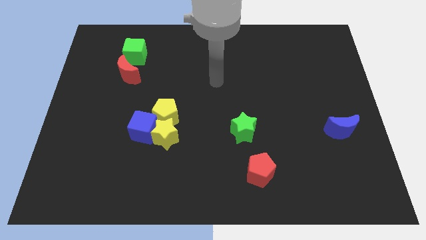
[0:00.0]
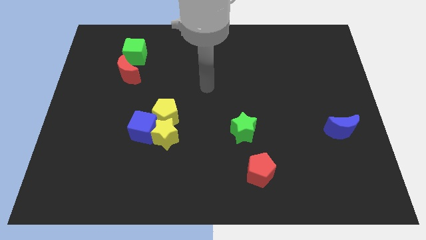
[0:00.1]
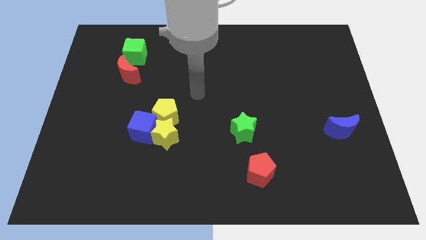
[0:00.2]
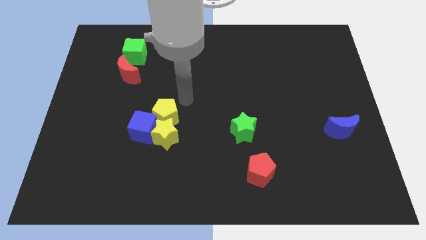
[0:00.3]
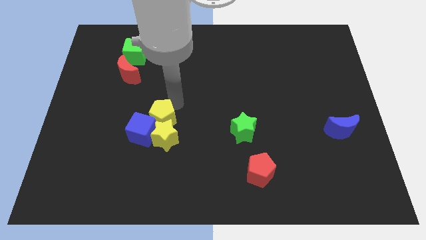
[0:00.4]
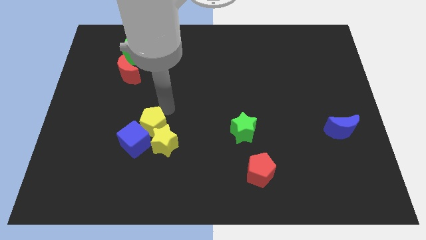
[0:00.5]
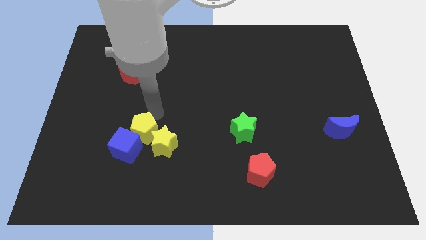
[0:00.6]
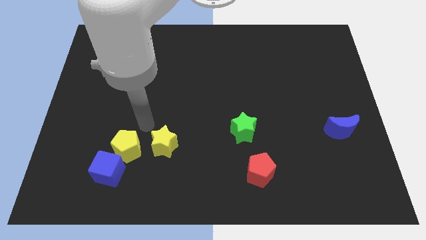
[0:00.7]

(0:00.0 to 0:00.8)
move the yellow star away from the blue cube and yellow pentagon

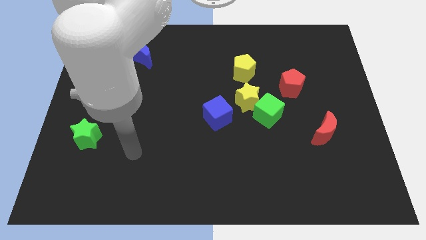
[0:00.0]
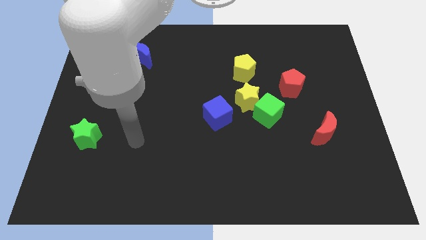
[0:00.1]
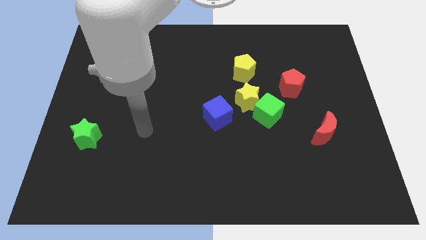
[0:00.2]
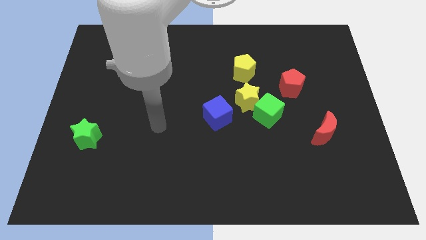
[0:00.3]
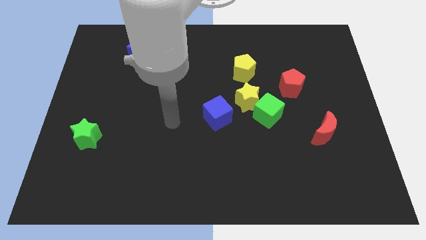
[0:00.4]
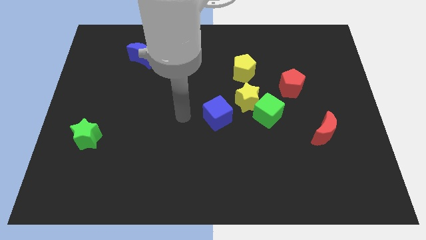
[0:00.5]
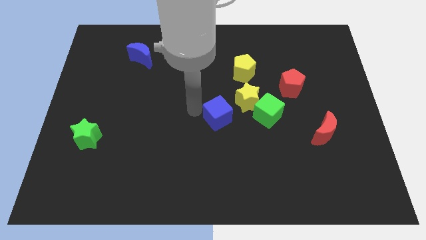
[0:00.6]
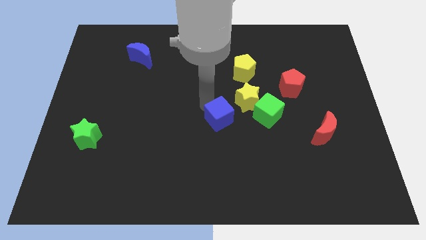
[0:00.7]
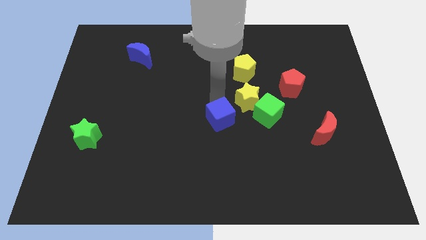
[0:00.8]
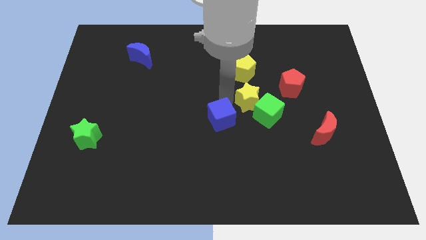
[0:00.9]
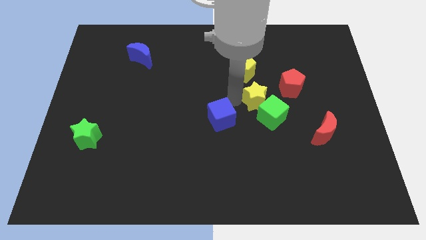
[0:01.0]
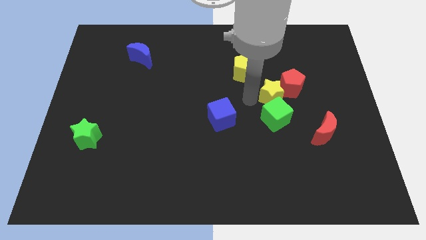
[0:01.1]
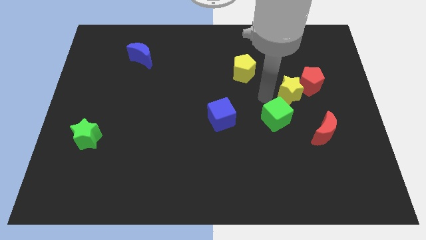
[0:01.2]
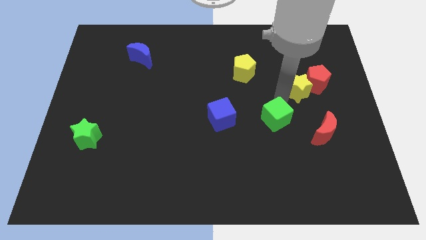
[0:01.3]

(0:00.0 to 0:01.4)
move the green cube away from the yellow star

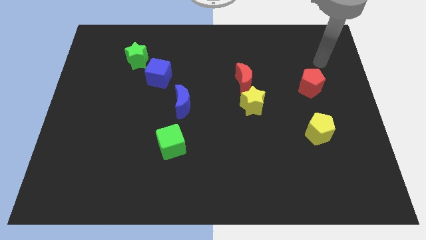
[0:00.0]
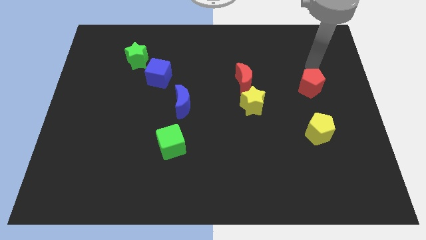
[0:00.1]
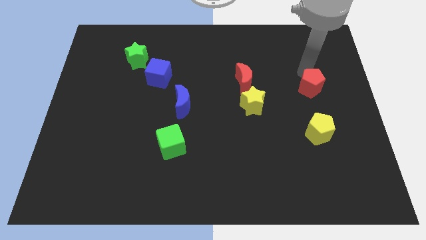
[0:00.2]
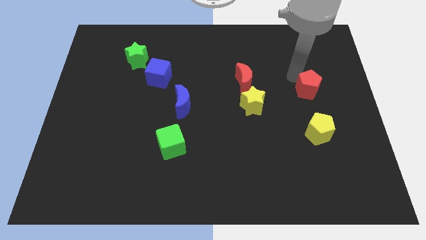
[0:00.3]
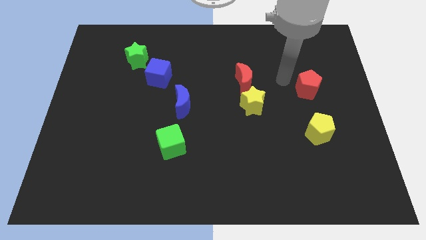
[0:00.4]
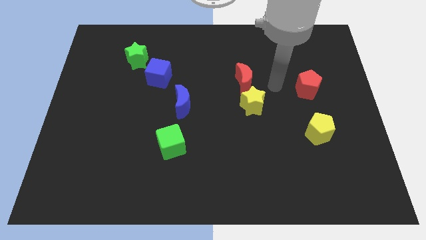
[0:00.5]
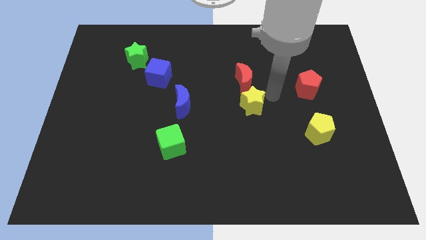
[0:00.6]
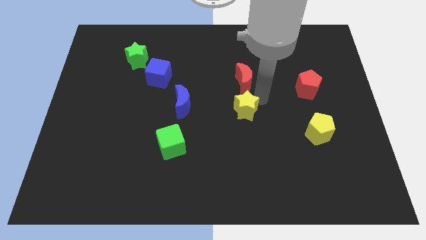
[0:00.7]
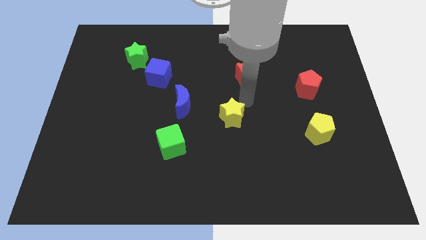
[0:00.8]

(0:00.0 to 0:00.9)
pull the red moon apart from the yellow star

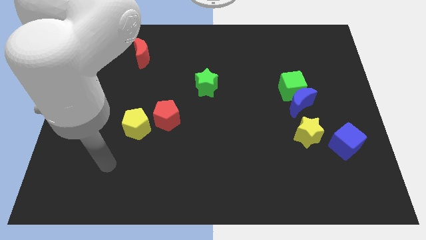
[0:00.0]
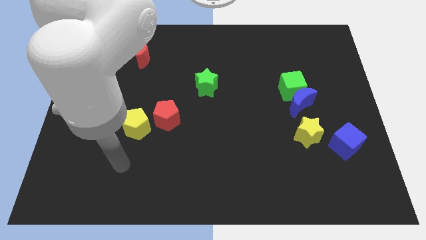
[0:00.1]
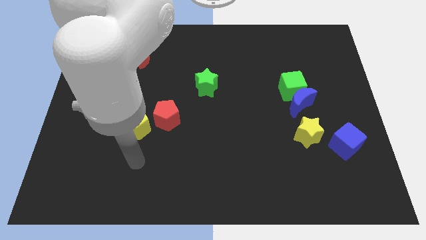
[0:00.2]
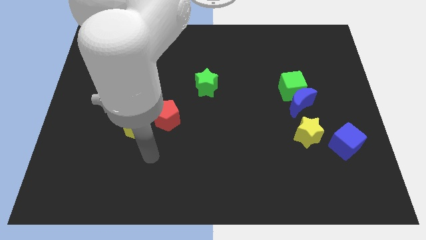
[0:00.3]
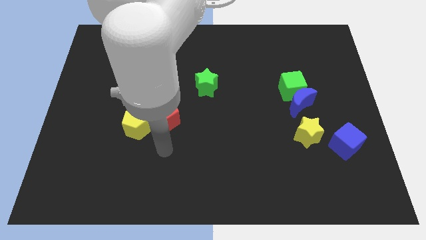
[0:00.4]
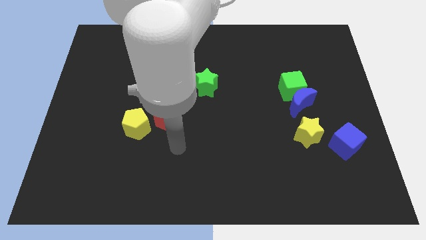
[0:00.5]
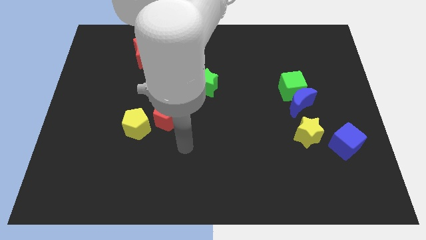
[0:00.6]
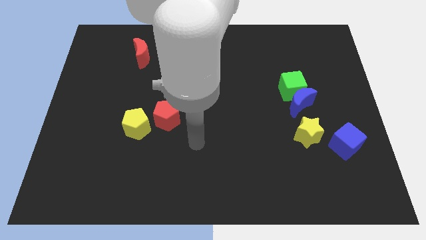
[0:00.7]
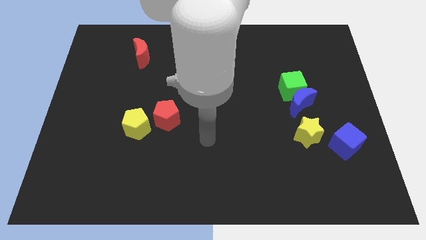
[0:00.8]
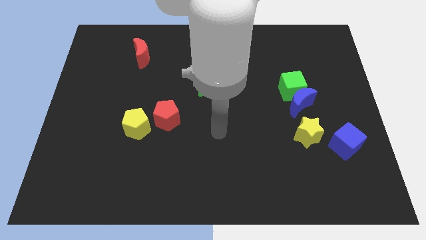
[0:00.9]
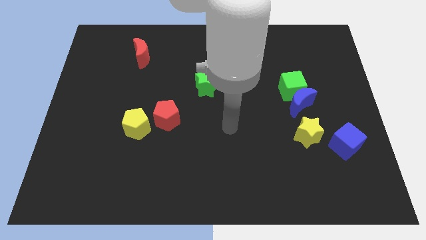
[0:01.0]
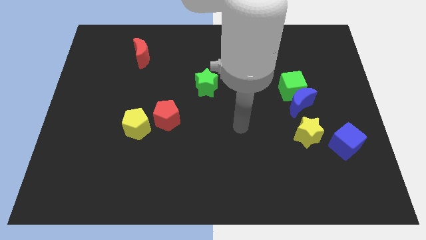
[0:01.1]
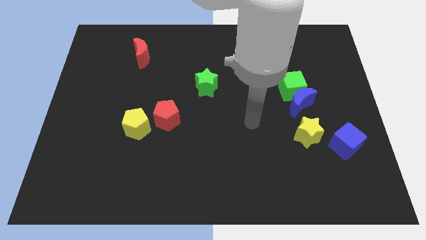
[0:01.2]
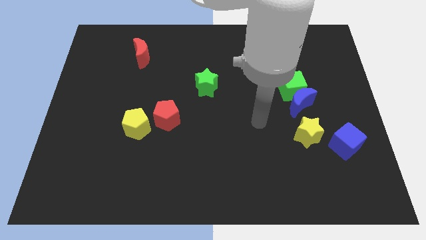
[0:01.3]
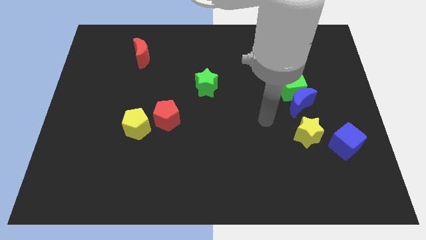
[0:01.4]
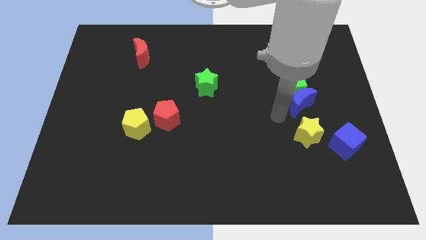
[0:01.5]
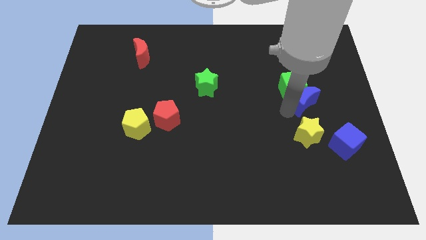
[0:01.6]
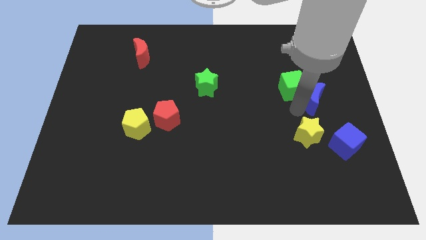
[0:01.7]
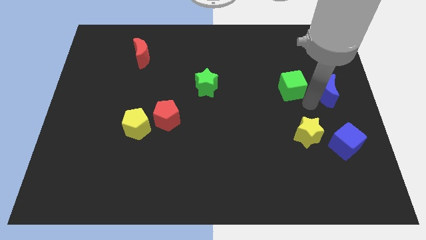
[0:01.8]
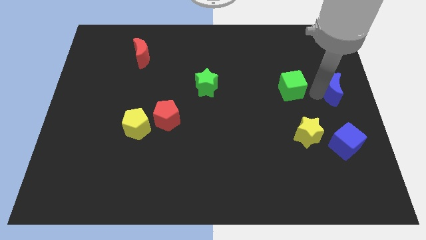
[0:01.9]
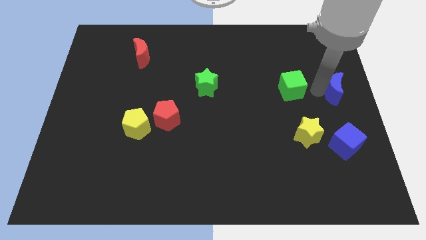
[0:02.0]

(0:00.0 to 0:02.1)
pull the green cube apart from the blue moon

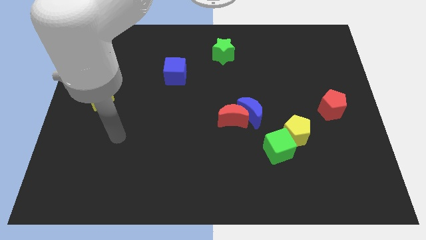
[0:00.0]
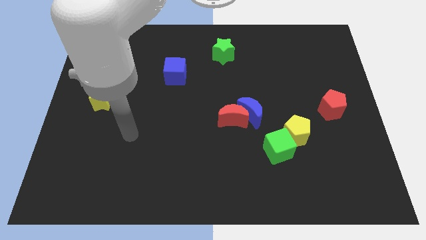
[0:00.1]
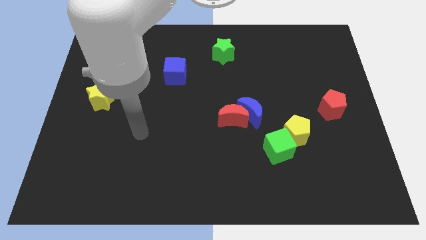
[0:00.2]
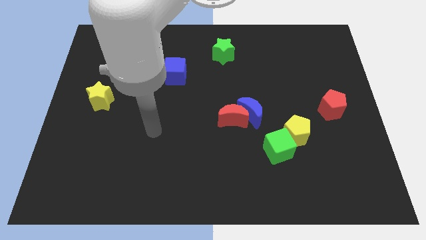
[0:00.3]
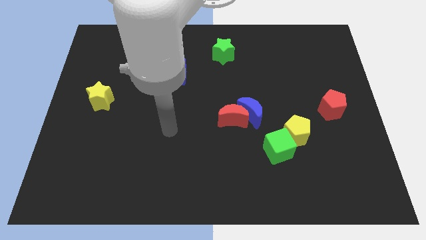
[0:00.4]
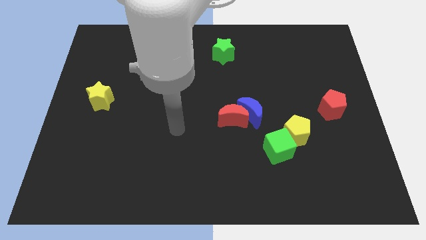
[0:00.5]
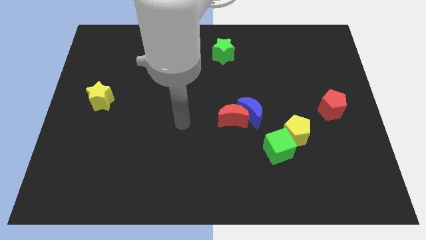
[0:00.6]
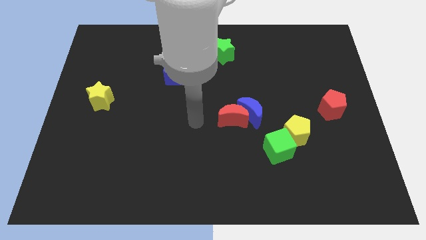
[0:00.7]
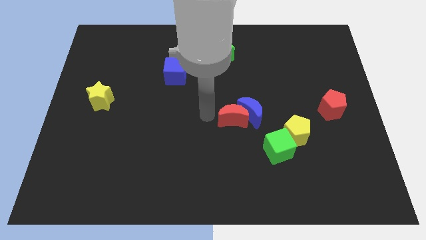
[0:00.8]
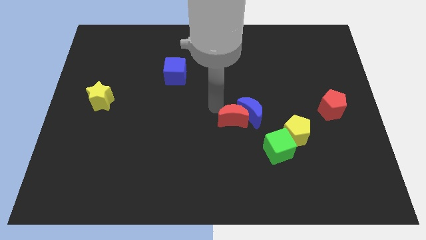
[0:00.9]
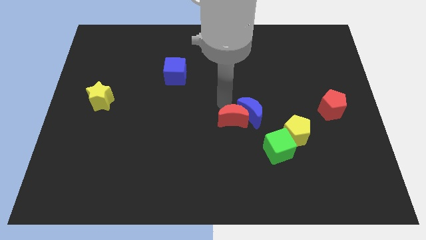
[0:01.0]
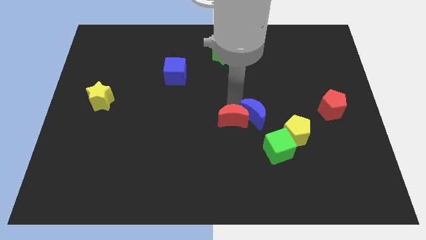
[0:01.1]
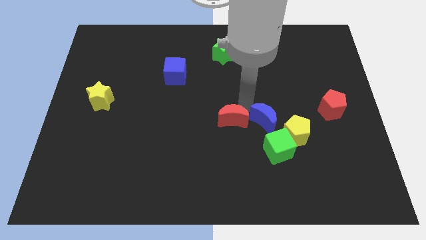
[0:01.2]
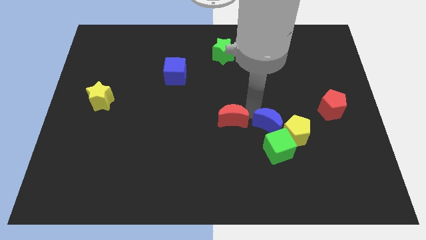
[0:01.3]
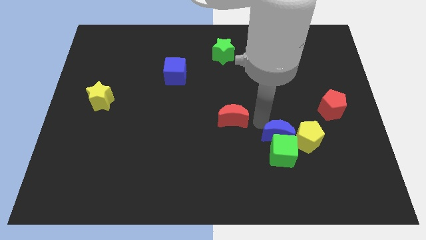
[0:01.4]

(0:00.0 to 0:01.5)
pull the red moon apart from the blue moon

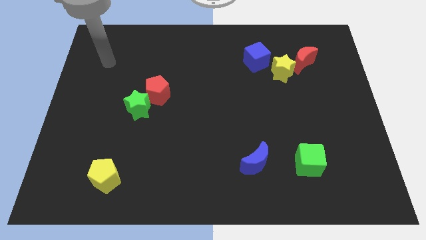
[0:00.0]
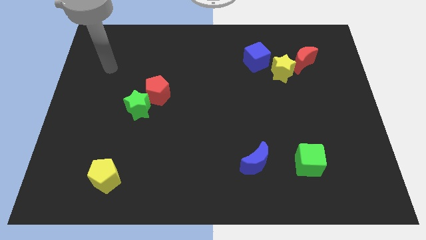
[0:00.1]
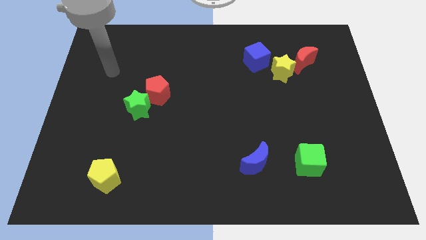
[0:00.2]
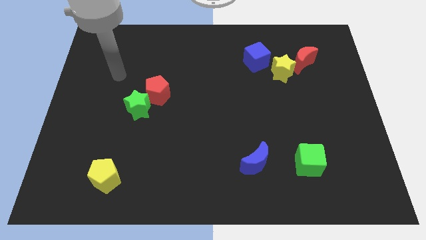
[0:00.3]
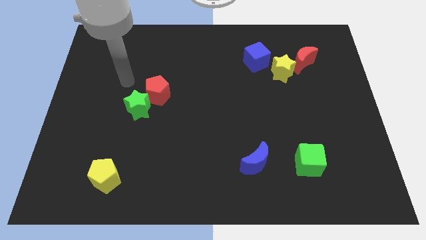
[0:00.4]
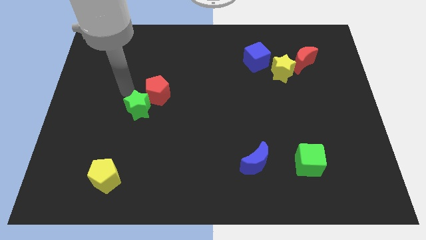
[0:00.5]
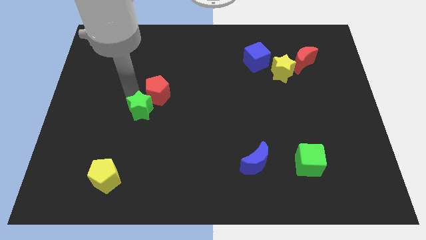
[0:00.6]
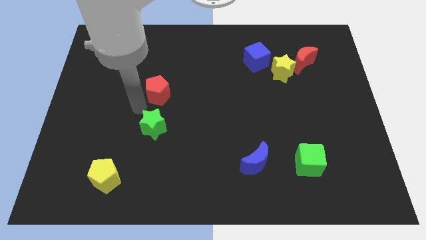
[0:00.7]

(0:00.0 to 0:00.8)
pull the red pentagon apart from the green star

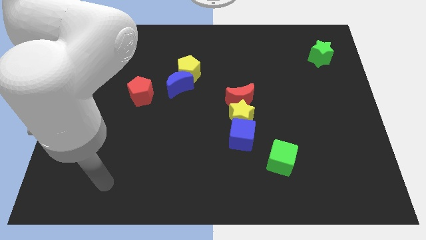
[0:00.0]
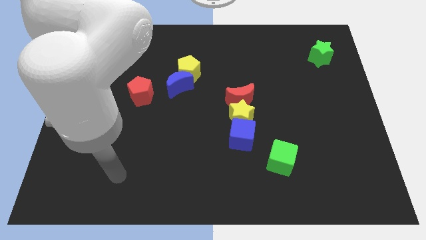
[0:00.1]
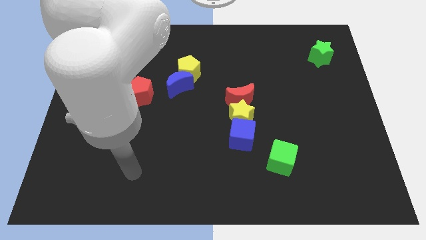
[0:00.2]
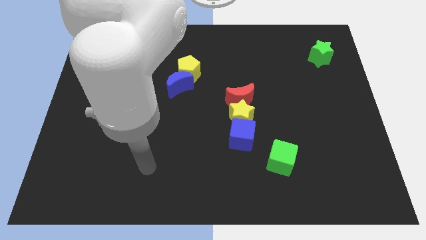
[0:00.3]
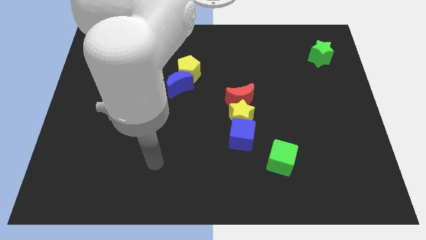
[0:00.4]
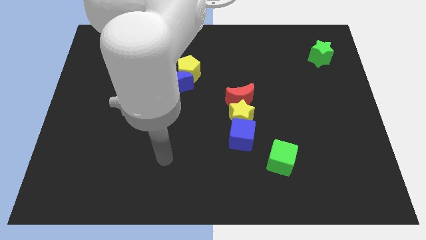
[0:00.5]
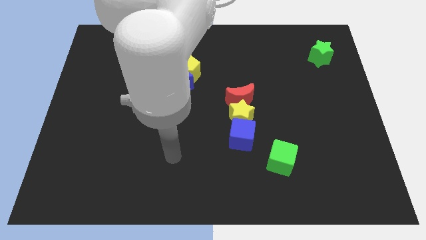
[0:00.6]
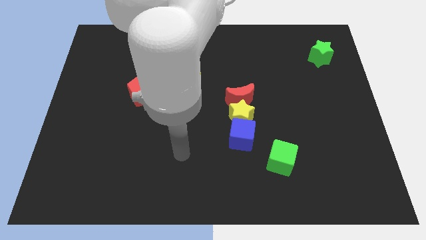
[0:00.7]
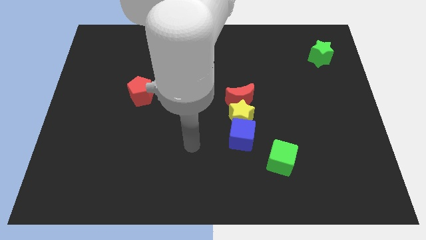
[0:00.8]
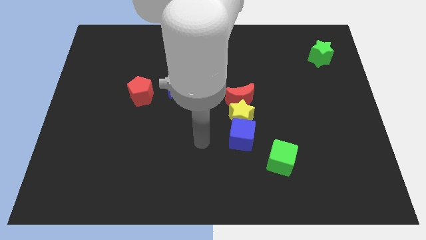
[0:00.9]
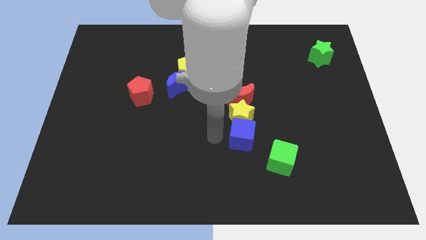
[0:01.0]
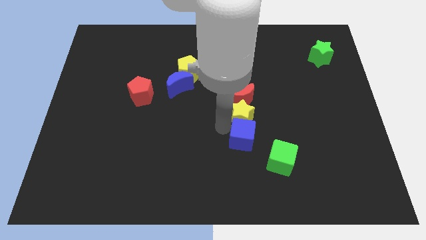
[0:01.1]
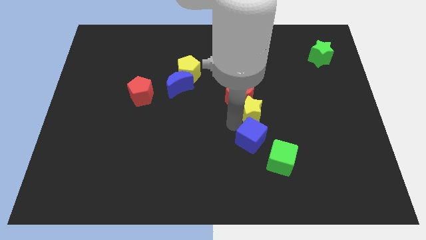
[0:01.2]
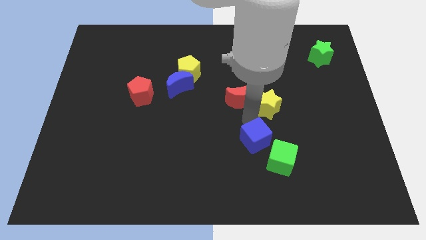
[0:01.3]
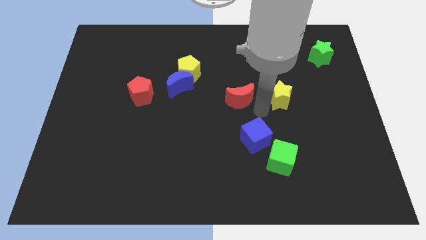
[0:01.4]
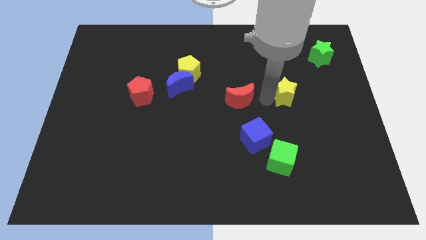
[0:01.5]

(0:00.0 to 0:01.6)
move the red moon away from the yellow star

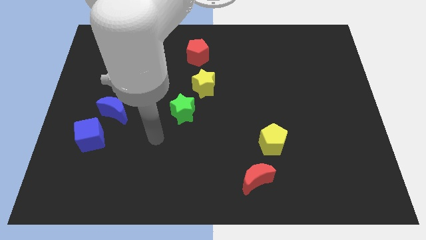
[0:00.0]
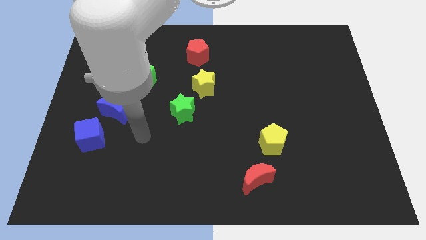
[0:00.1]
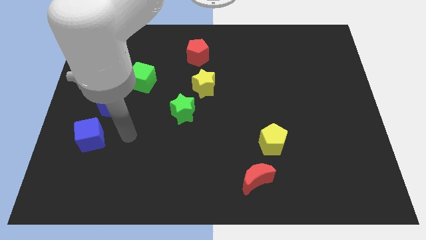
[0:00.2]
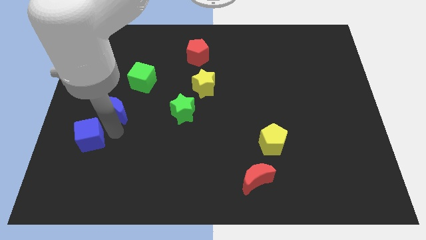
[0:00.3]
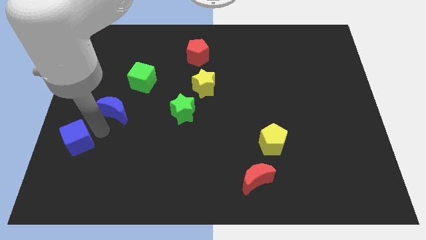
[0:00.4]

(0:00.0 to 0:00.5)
separate the blue moon from the blue cube
